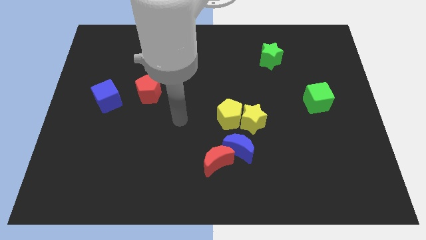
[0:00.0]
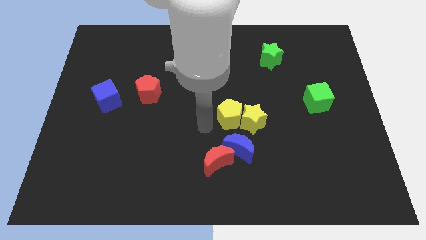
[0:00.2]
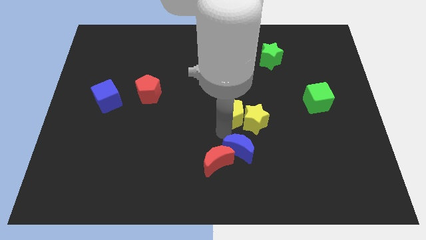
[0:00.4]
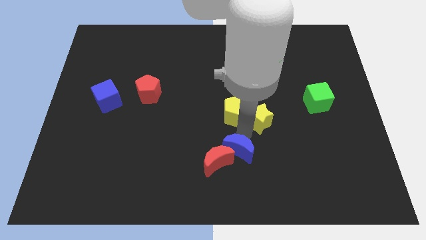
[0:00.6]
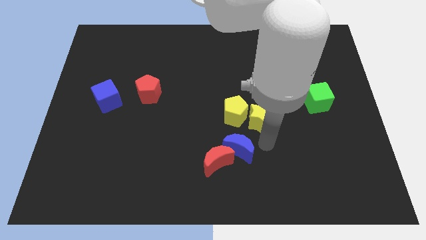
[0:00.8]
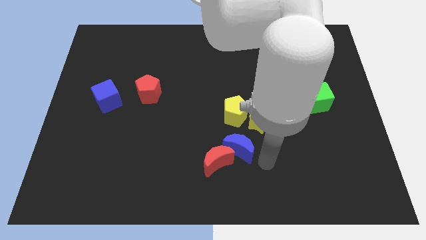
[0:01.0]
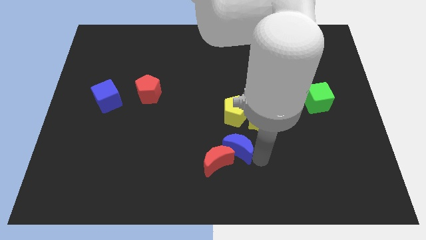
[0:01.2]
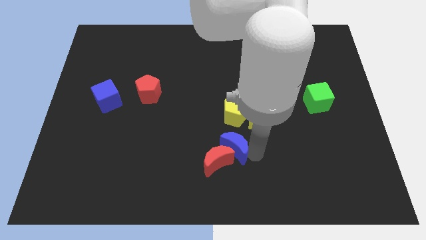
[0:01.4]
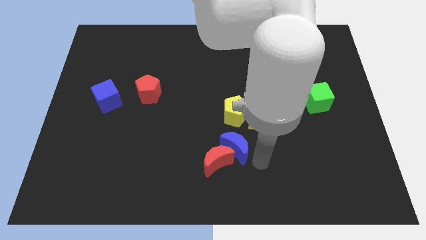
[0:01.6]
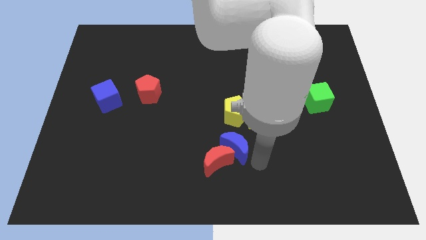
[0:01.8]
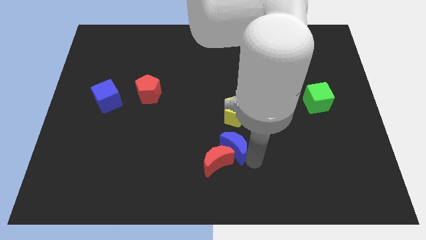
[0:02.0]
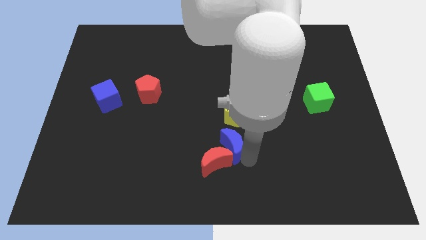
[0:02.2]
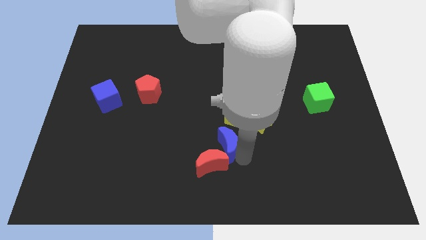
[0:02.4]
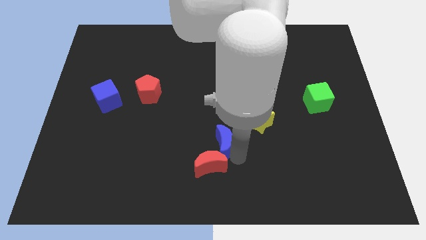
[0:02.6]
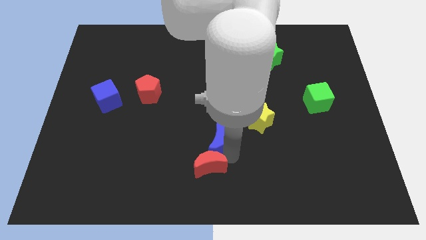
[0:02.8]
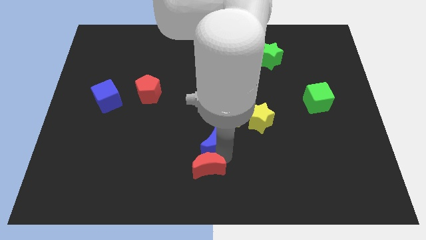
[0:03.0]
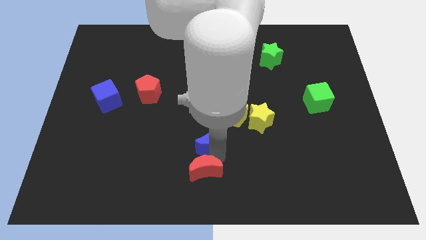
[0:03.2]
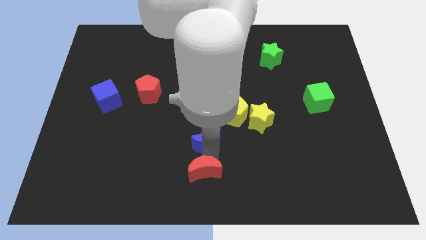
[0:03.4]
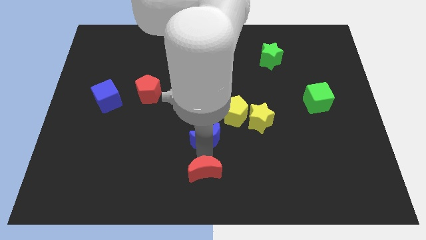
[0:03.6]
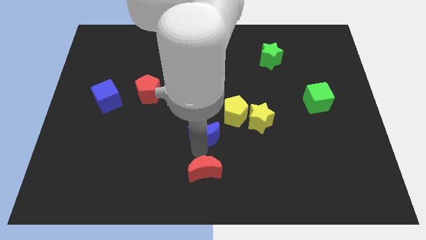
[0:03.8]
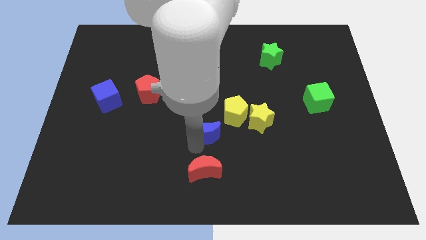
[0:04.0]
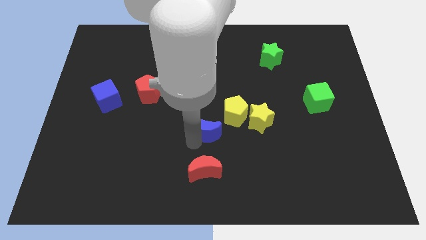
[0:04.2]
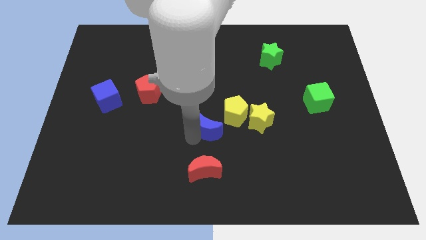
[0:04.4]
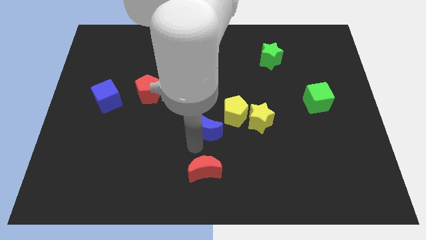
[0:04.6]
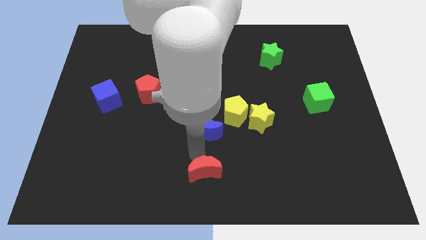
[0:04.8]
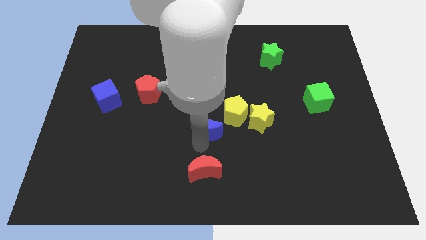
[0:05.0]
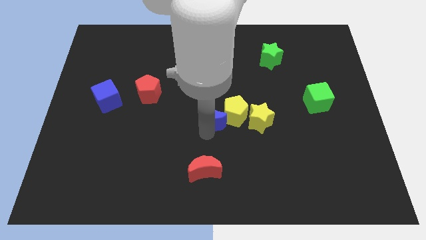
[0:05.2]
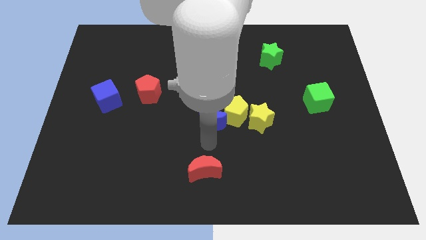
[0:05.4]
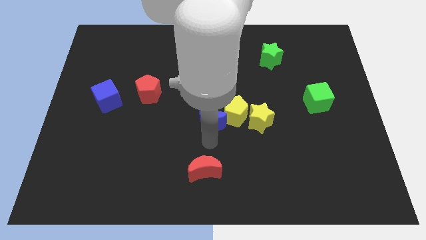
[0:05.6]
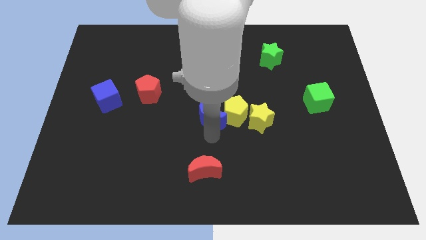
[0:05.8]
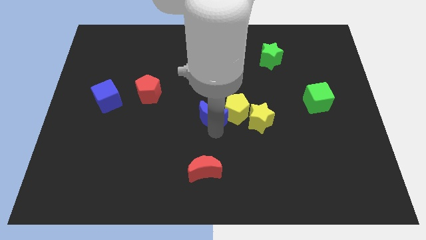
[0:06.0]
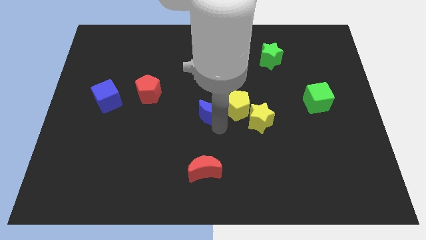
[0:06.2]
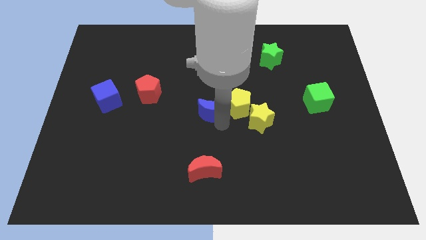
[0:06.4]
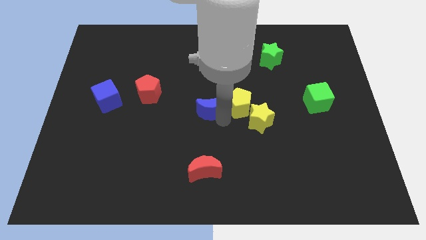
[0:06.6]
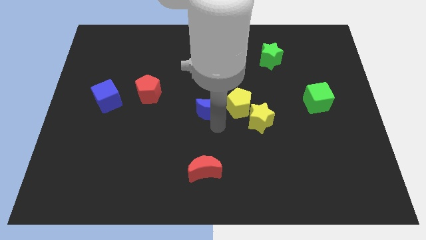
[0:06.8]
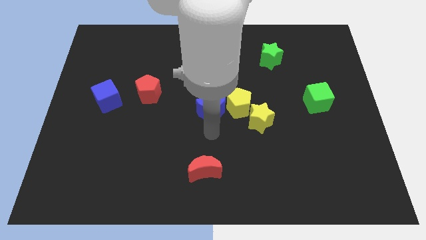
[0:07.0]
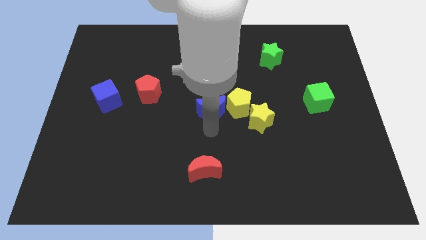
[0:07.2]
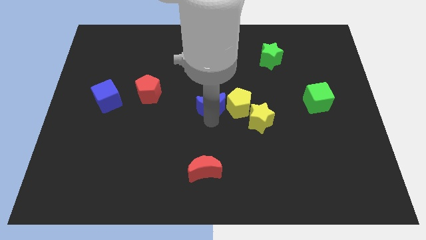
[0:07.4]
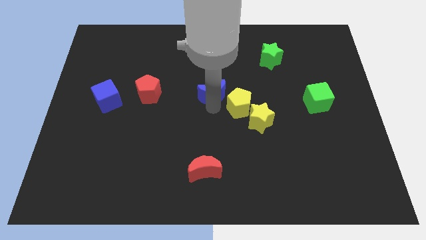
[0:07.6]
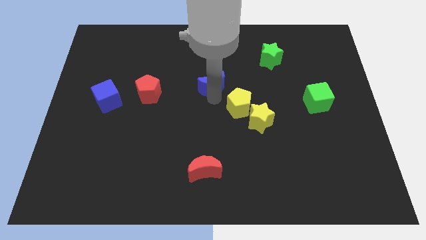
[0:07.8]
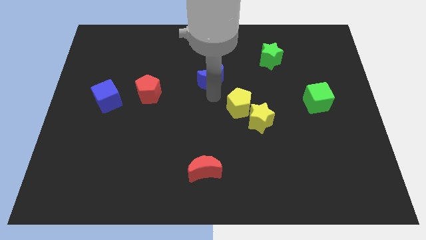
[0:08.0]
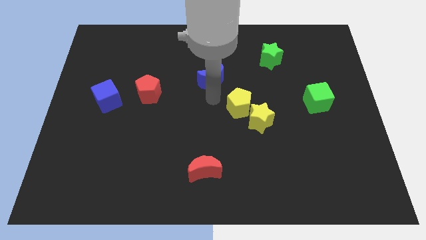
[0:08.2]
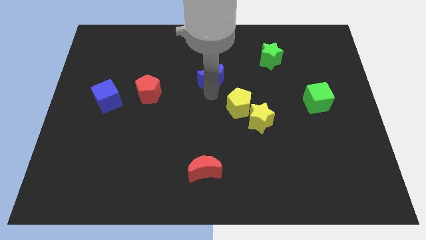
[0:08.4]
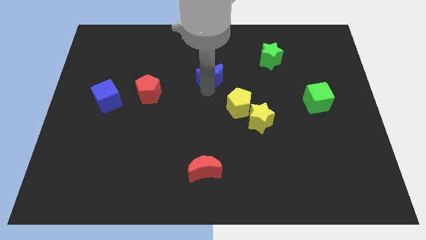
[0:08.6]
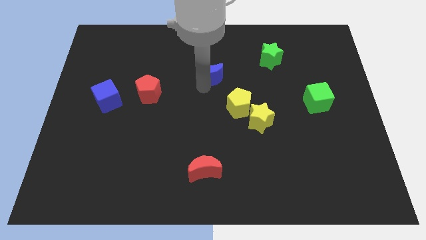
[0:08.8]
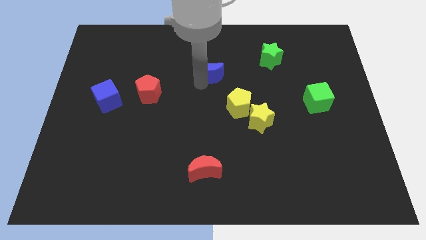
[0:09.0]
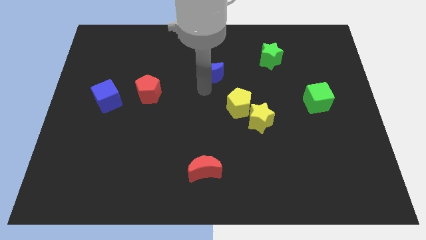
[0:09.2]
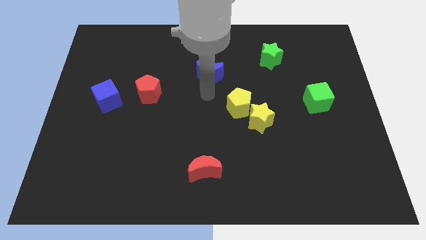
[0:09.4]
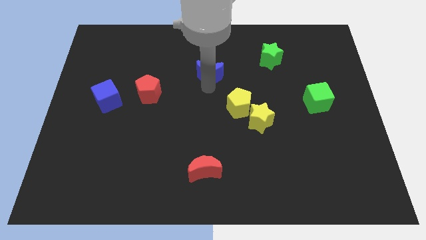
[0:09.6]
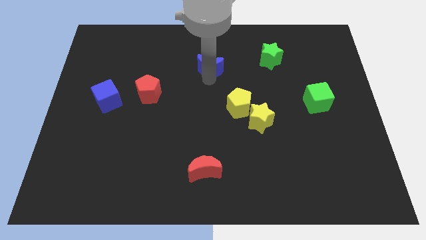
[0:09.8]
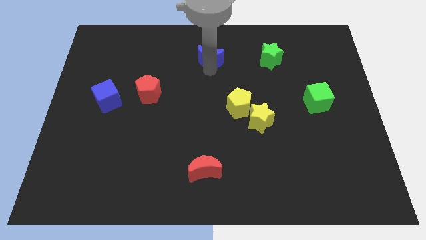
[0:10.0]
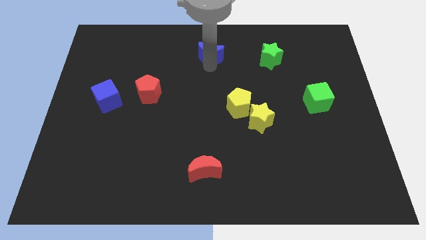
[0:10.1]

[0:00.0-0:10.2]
slide the blue moon to the top
